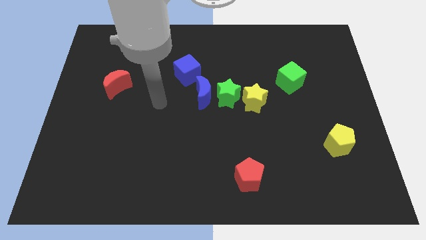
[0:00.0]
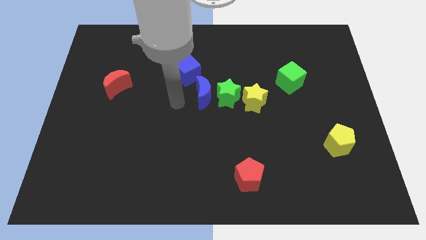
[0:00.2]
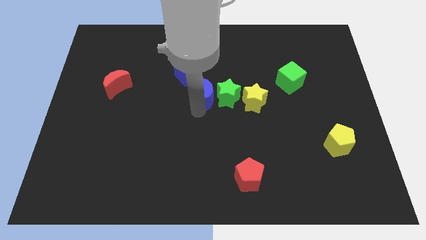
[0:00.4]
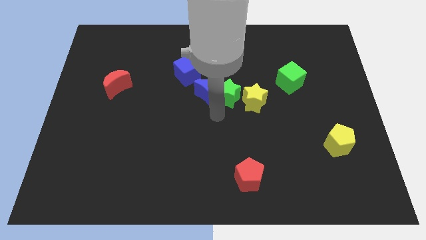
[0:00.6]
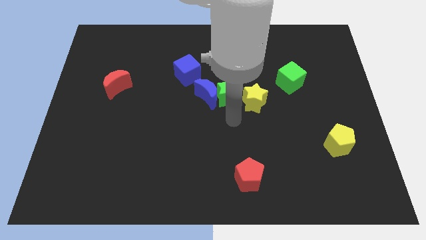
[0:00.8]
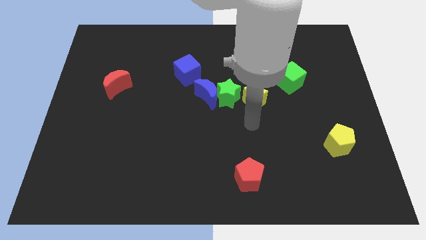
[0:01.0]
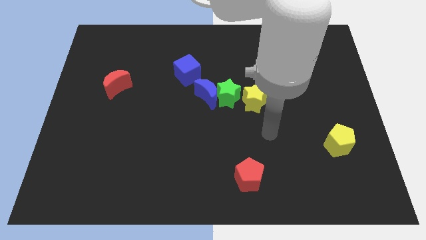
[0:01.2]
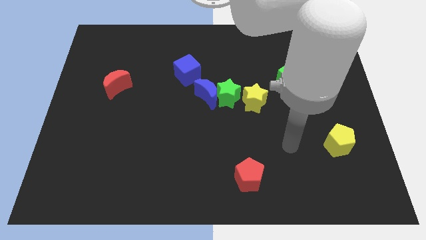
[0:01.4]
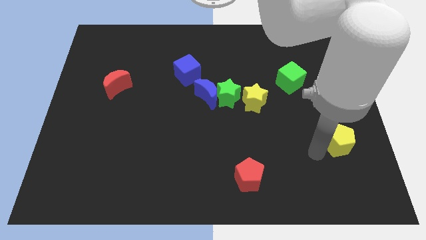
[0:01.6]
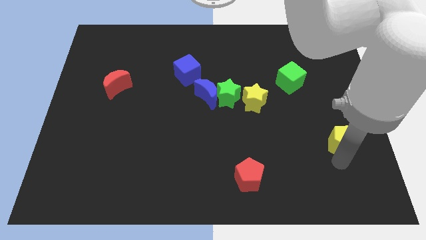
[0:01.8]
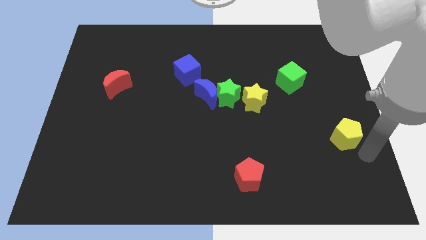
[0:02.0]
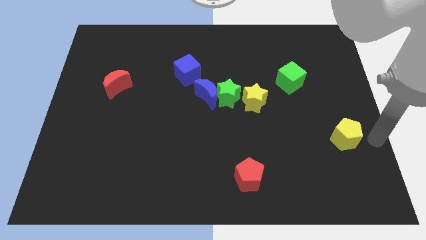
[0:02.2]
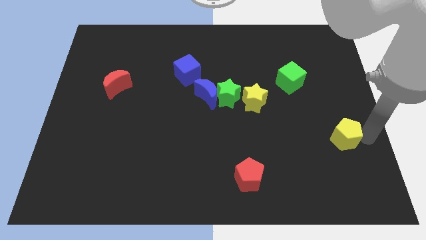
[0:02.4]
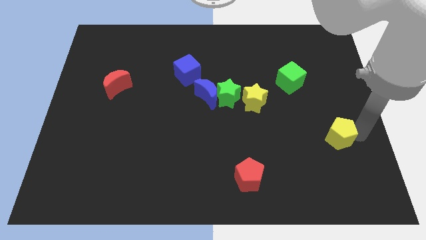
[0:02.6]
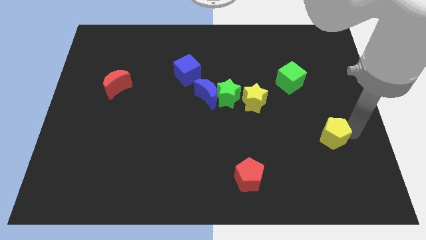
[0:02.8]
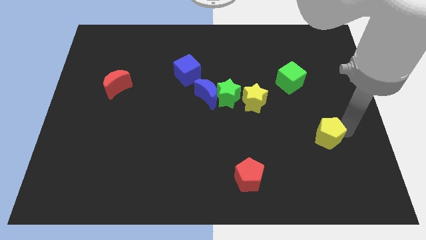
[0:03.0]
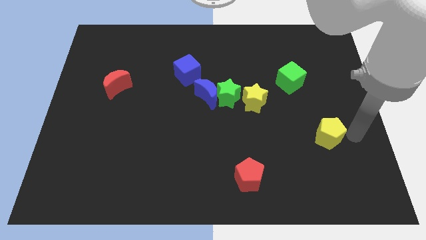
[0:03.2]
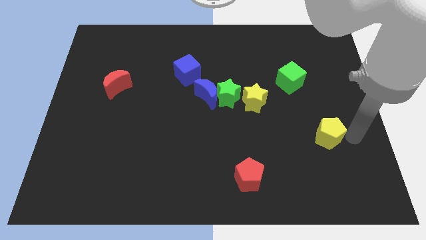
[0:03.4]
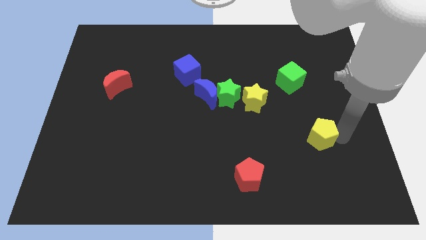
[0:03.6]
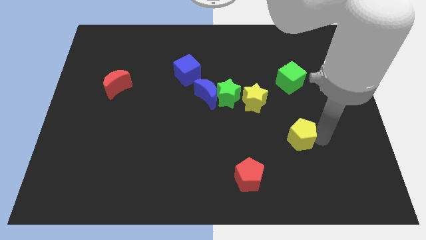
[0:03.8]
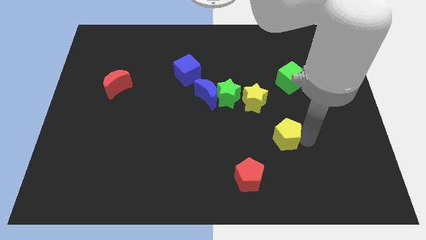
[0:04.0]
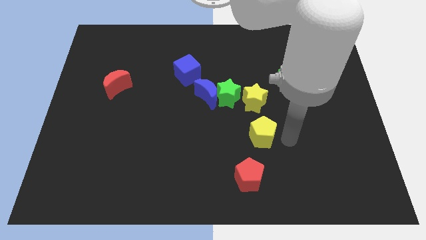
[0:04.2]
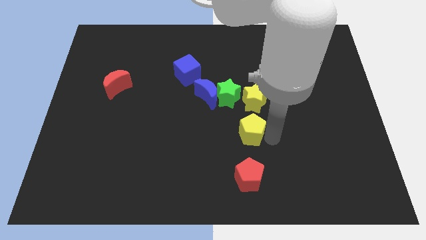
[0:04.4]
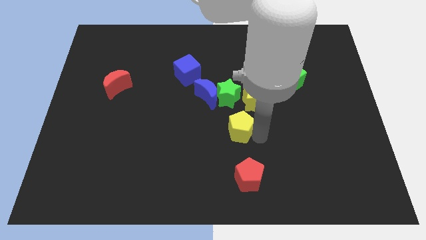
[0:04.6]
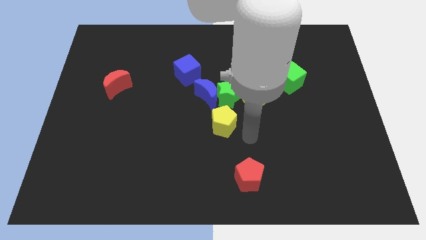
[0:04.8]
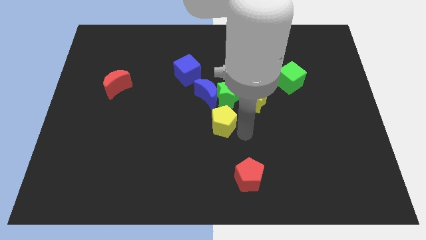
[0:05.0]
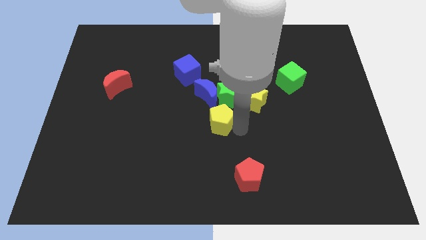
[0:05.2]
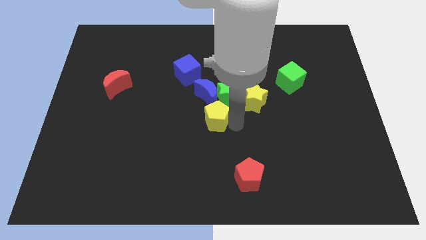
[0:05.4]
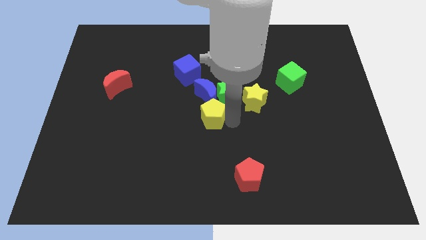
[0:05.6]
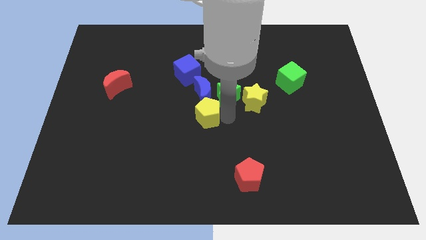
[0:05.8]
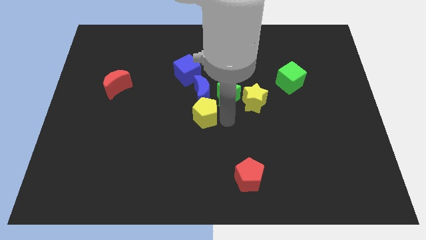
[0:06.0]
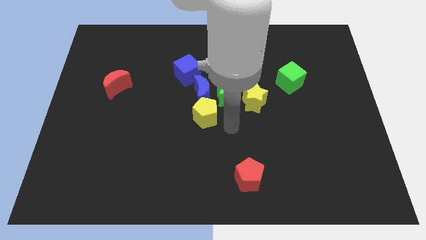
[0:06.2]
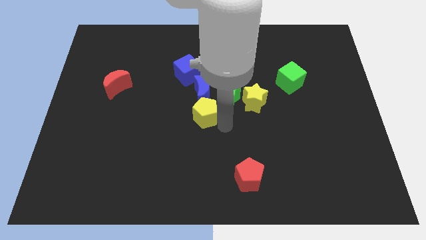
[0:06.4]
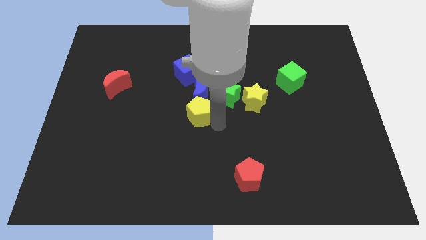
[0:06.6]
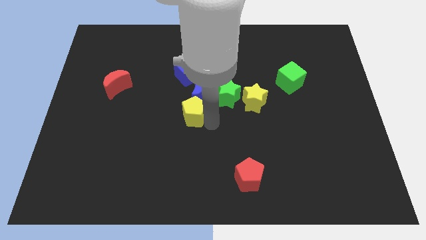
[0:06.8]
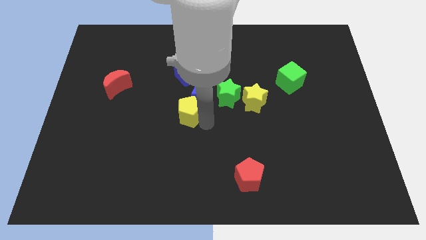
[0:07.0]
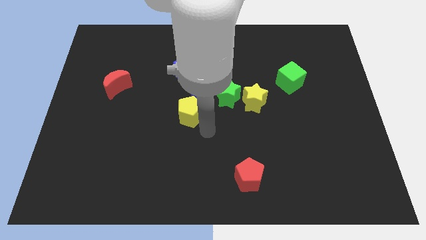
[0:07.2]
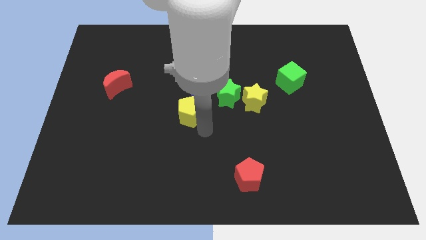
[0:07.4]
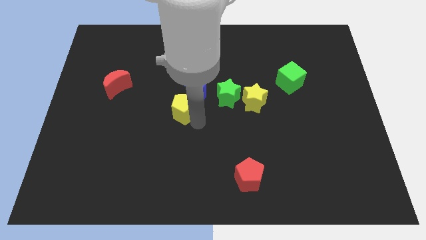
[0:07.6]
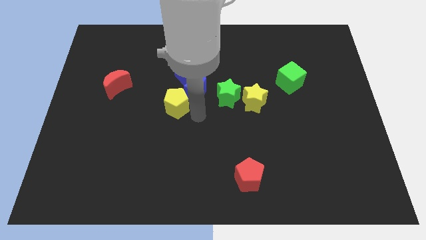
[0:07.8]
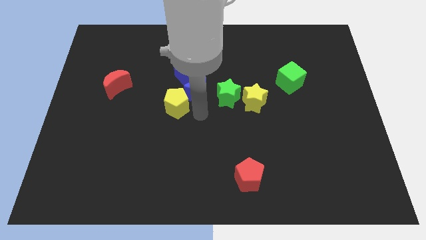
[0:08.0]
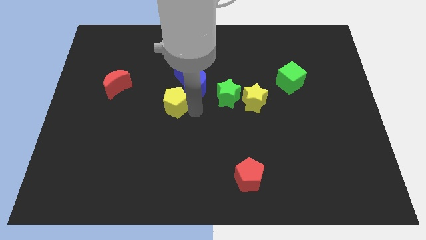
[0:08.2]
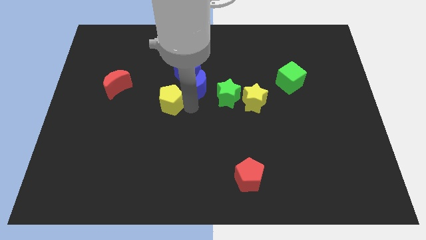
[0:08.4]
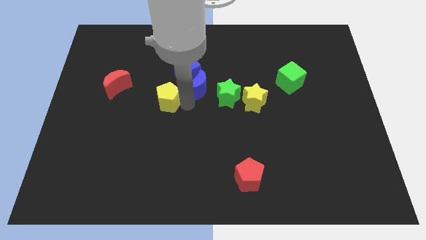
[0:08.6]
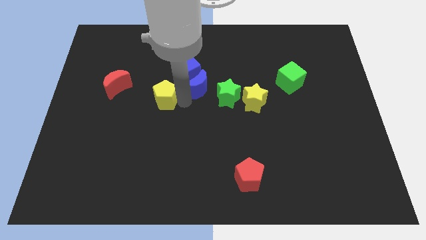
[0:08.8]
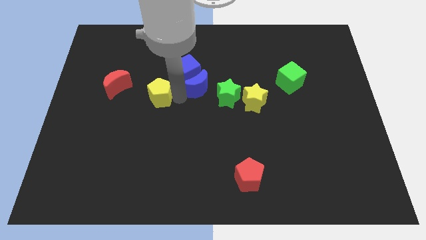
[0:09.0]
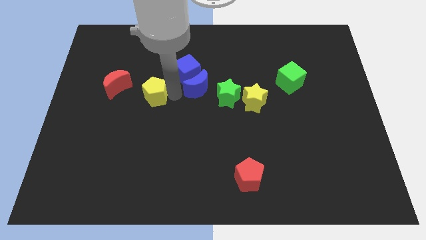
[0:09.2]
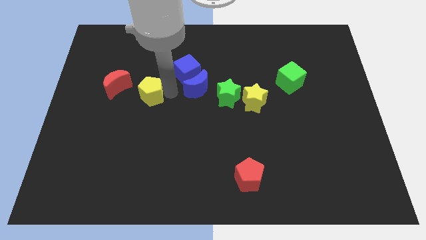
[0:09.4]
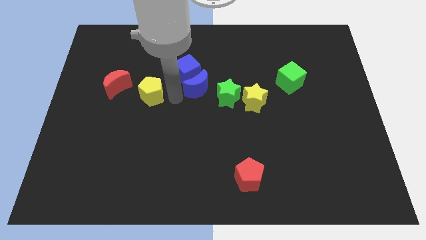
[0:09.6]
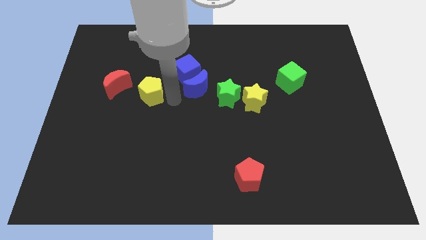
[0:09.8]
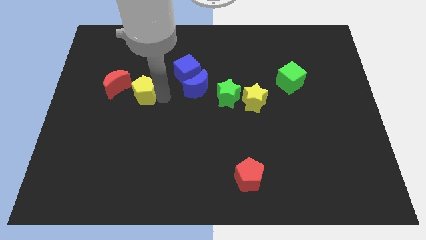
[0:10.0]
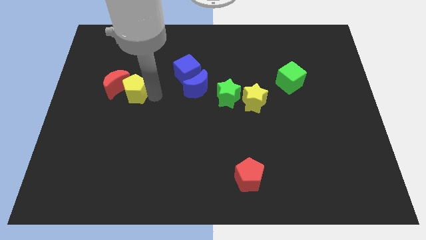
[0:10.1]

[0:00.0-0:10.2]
put the yellow pentagon towards the red moon

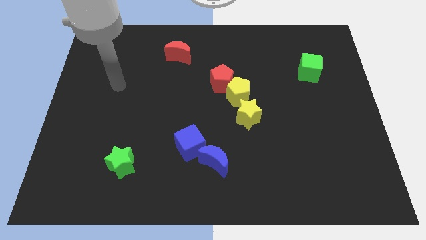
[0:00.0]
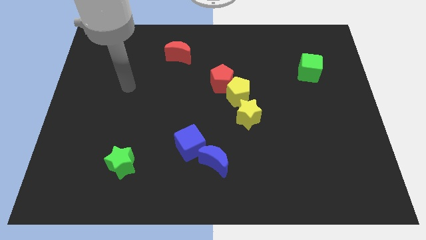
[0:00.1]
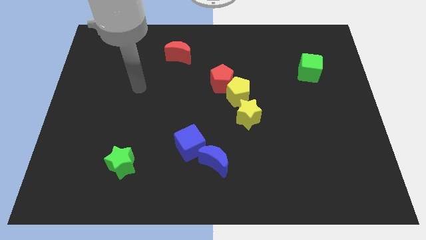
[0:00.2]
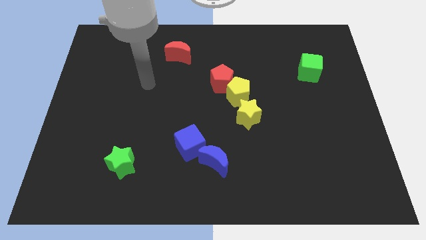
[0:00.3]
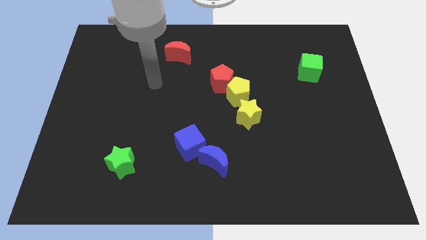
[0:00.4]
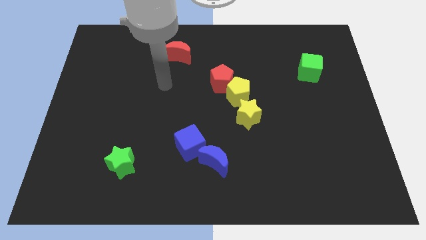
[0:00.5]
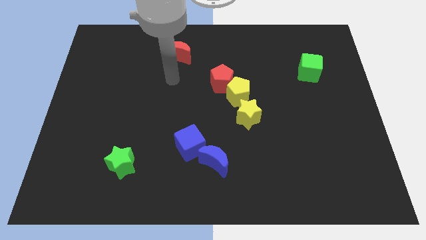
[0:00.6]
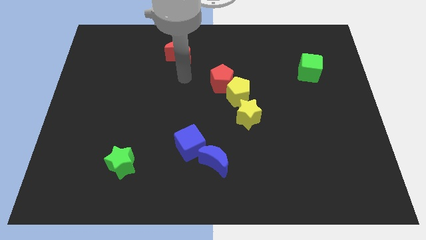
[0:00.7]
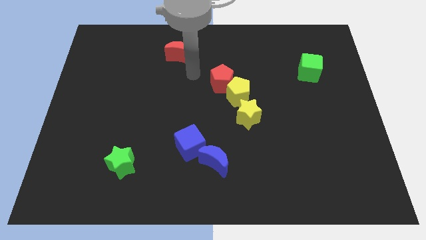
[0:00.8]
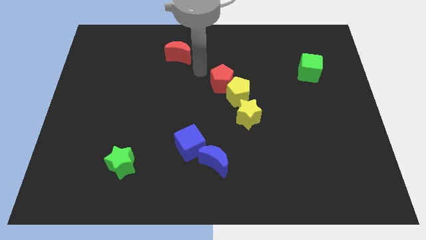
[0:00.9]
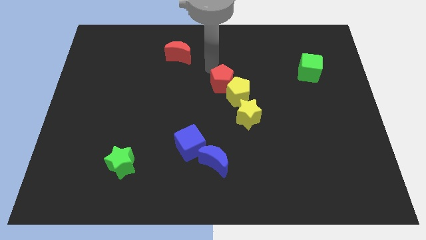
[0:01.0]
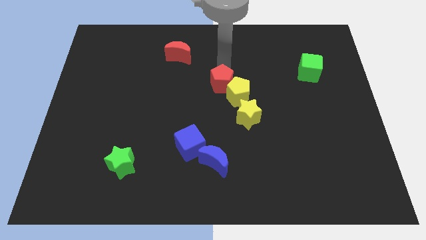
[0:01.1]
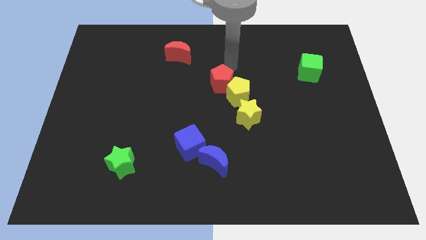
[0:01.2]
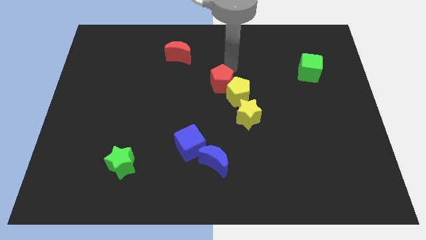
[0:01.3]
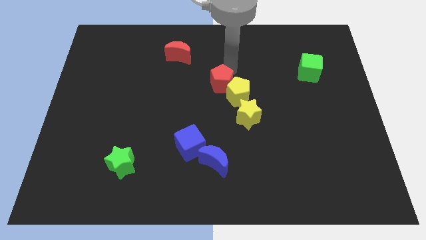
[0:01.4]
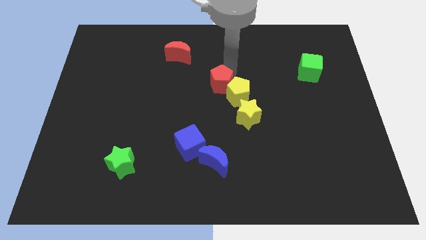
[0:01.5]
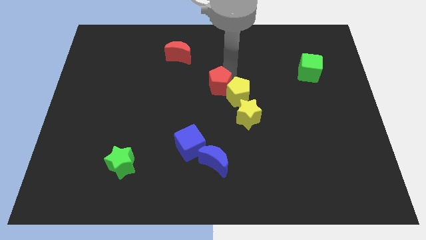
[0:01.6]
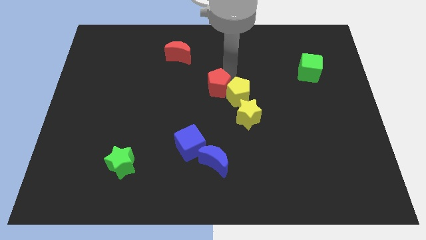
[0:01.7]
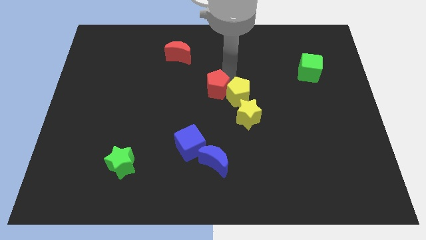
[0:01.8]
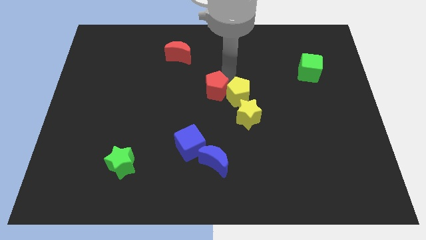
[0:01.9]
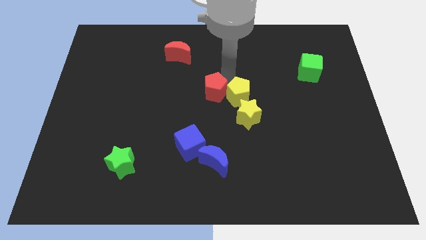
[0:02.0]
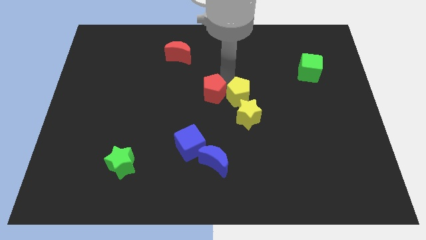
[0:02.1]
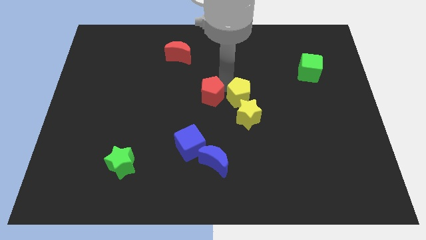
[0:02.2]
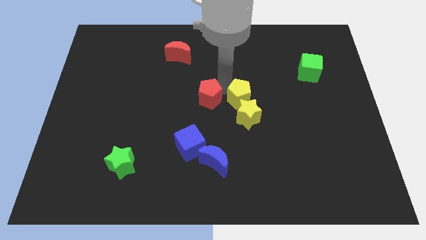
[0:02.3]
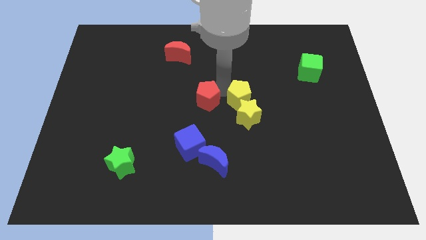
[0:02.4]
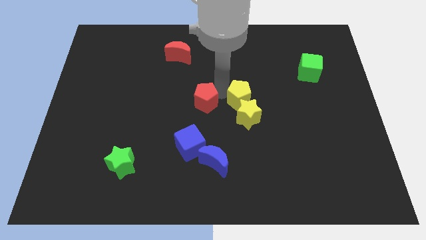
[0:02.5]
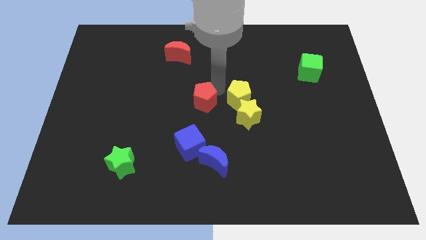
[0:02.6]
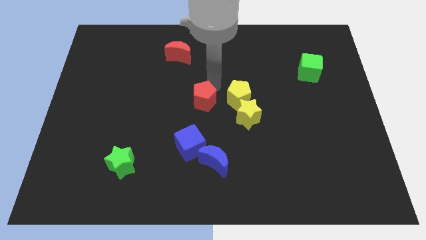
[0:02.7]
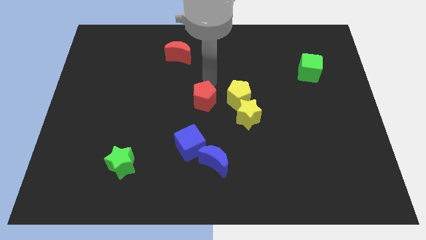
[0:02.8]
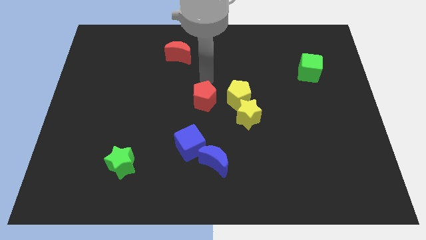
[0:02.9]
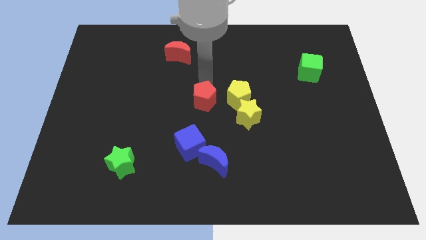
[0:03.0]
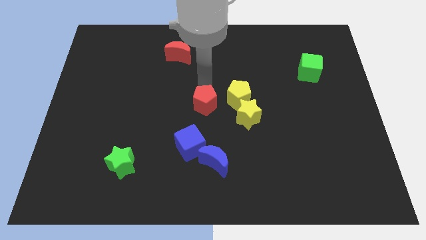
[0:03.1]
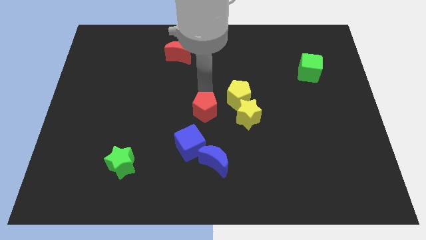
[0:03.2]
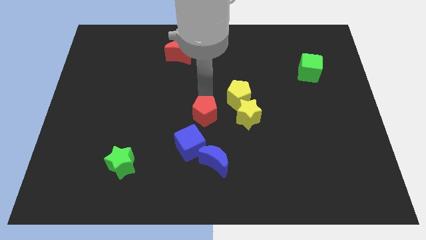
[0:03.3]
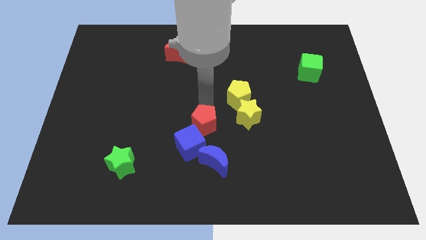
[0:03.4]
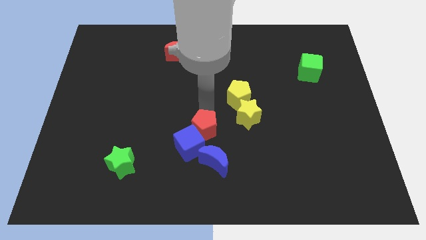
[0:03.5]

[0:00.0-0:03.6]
slide the red pentagon next to the blue cube
